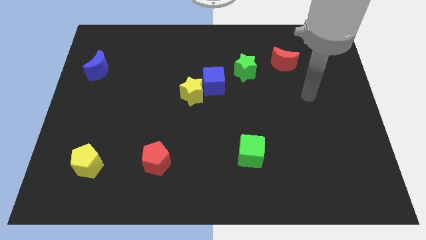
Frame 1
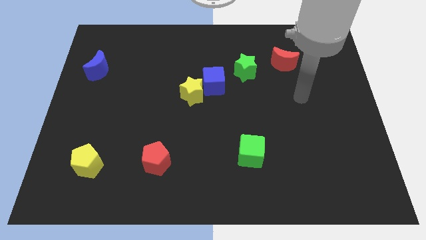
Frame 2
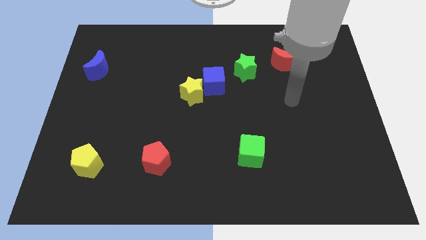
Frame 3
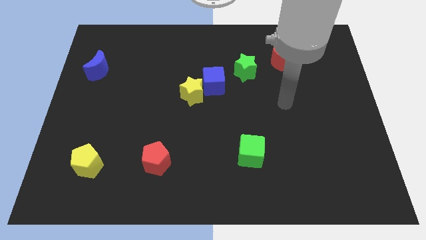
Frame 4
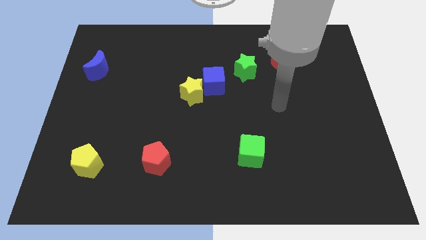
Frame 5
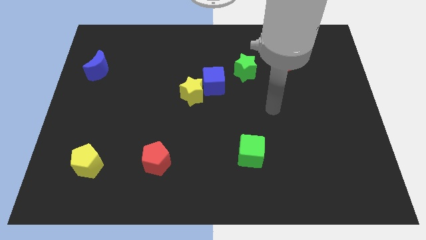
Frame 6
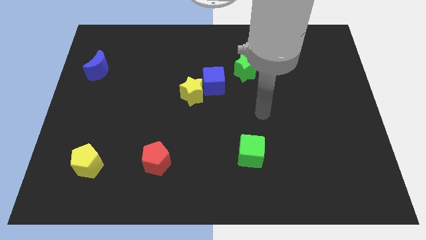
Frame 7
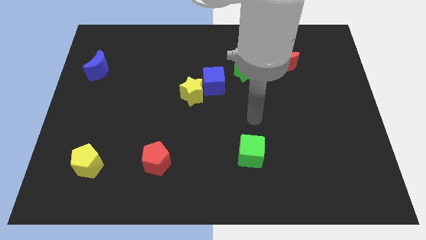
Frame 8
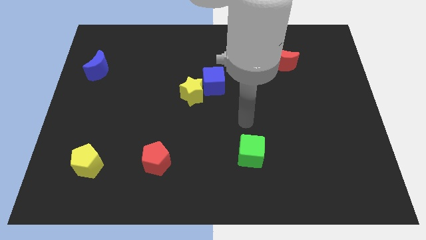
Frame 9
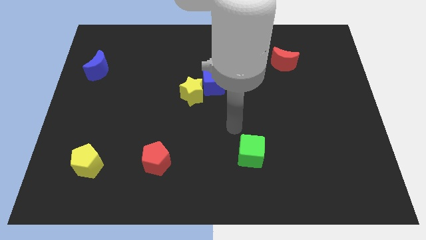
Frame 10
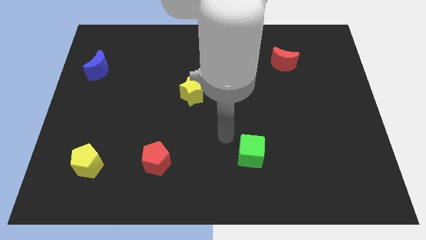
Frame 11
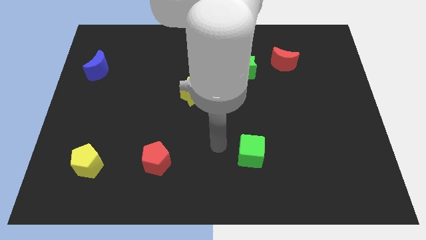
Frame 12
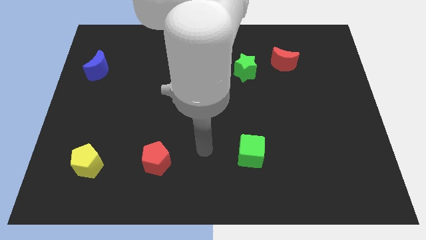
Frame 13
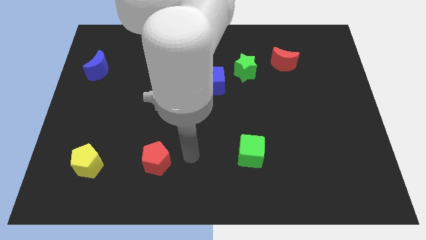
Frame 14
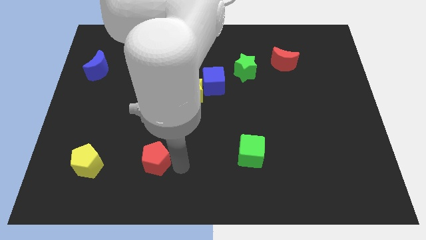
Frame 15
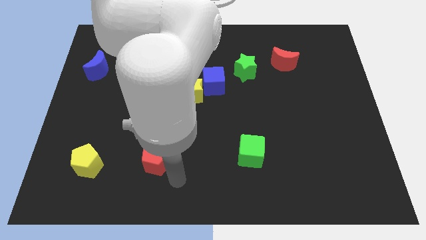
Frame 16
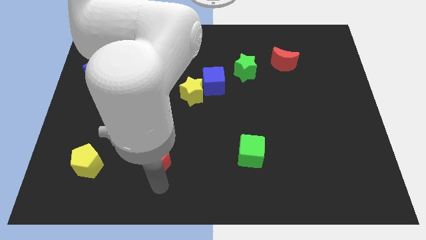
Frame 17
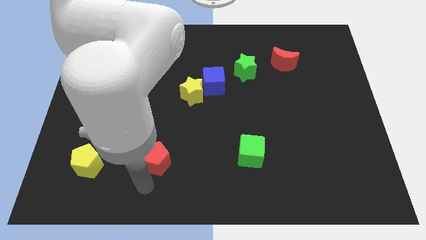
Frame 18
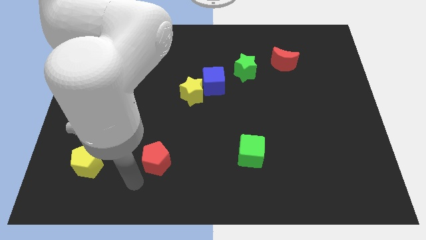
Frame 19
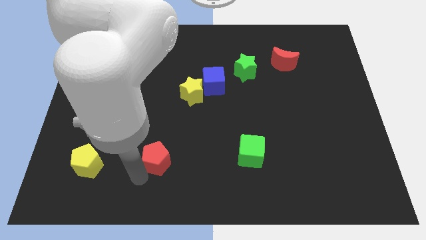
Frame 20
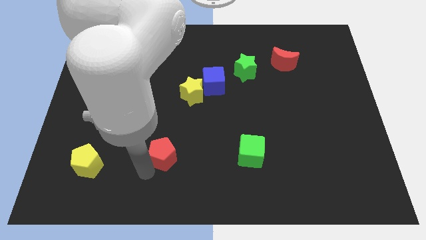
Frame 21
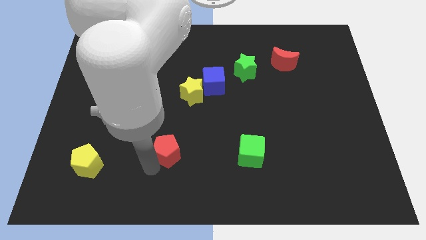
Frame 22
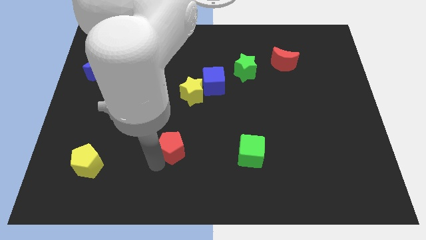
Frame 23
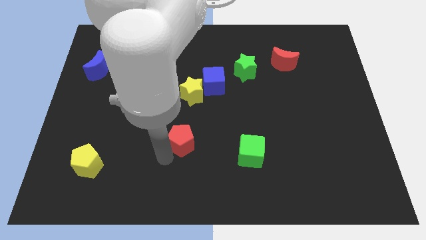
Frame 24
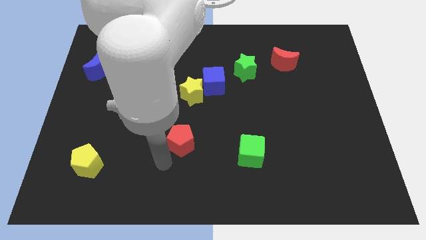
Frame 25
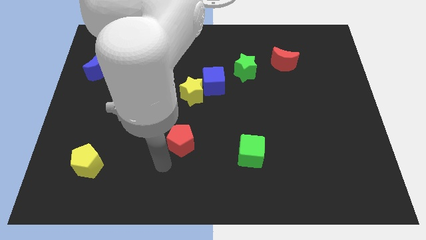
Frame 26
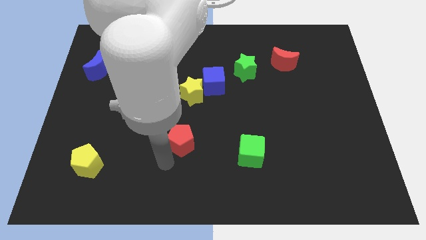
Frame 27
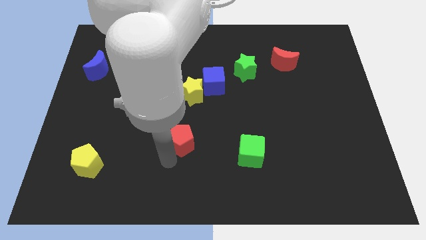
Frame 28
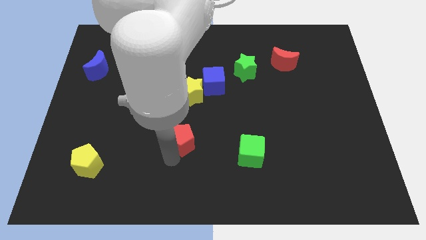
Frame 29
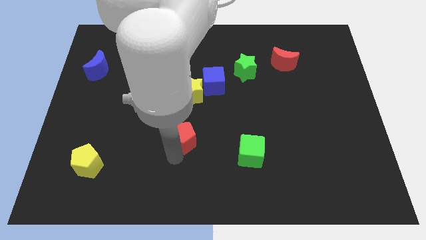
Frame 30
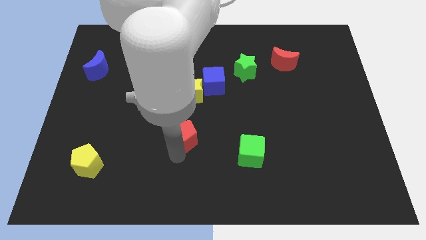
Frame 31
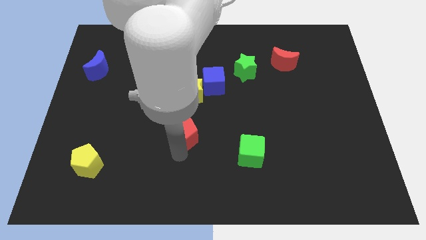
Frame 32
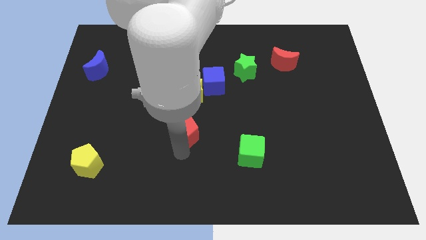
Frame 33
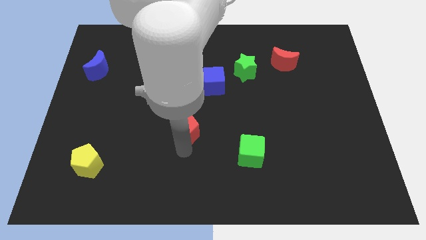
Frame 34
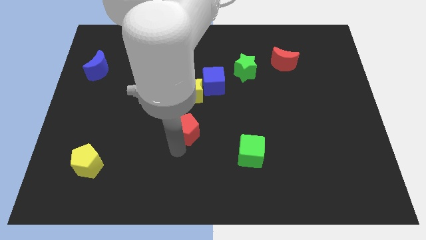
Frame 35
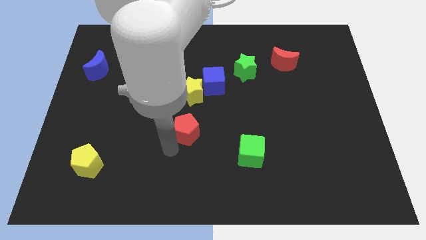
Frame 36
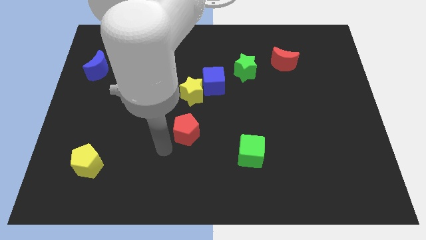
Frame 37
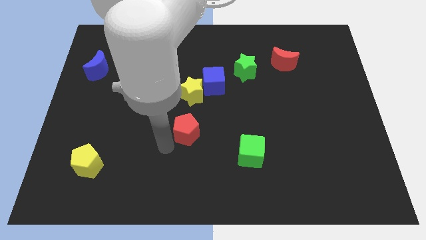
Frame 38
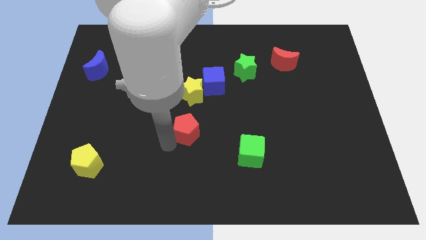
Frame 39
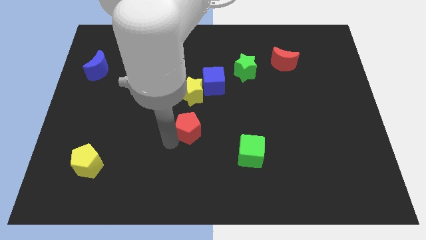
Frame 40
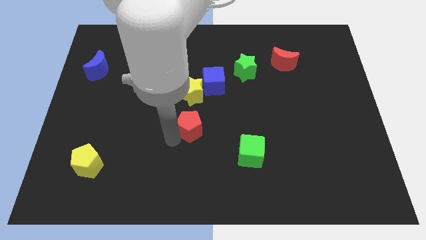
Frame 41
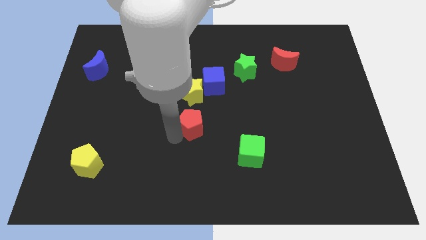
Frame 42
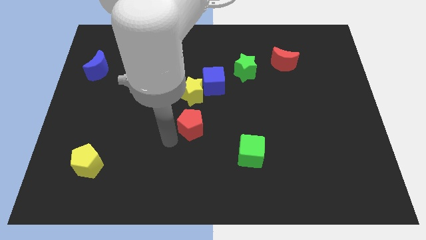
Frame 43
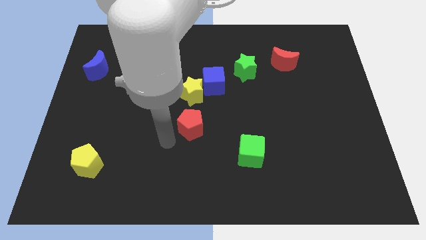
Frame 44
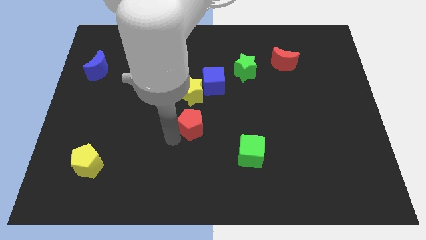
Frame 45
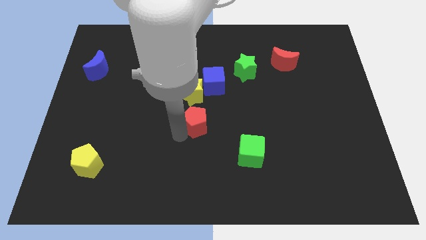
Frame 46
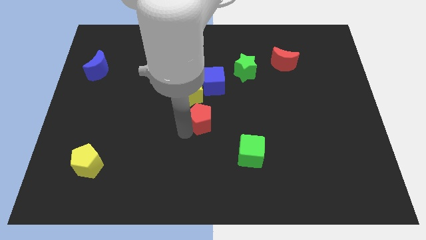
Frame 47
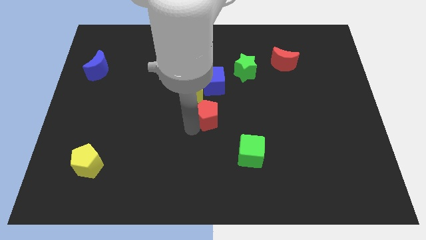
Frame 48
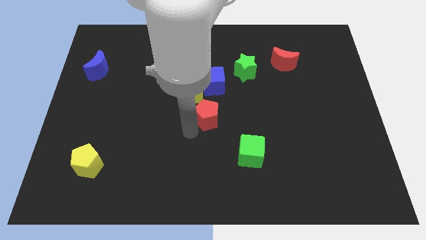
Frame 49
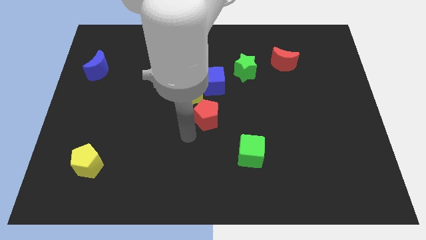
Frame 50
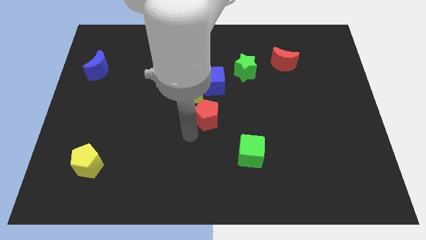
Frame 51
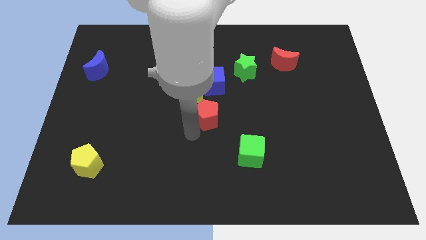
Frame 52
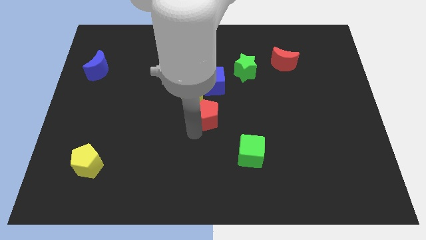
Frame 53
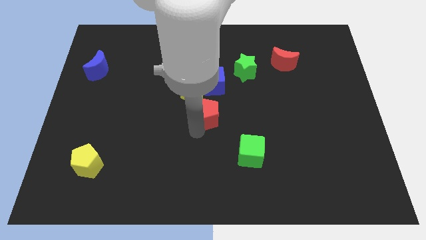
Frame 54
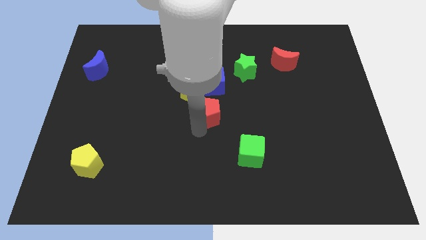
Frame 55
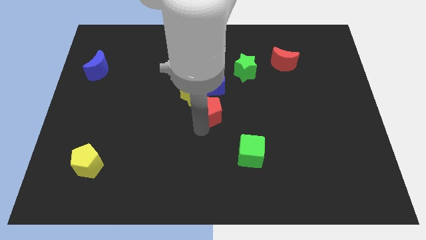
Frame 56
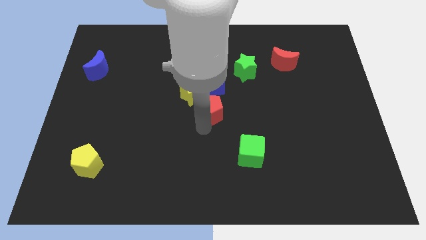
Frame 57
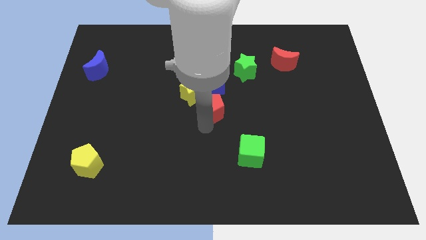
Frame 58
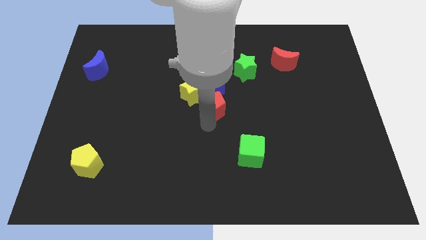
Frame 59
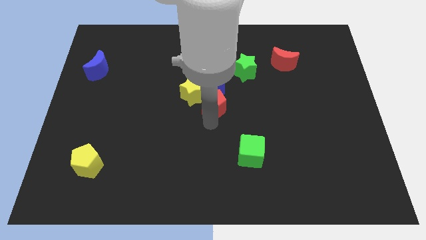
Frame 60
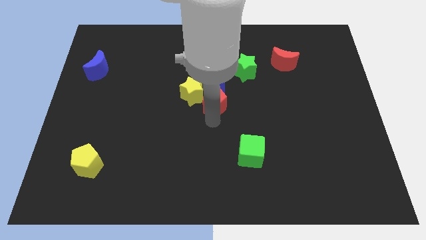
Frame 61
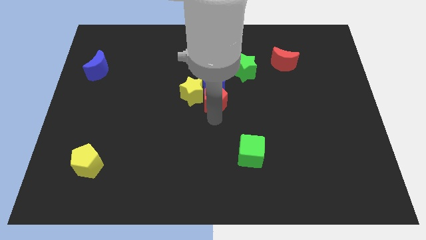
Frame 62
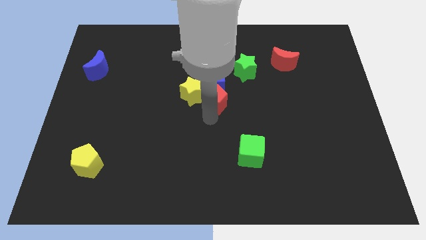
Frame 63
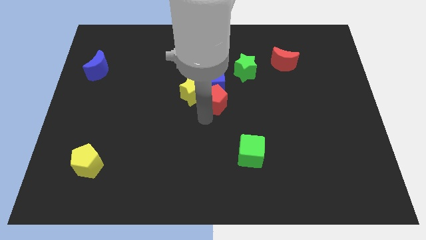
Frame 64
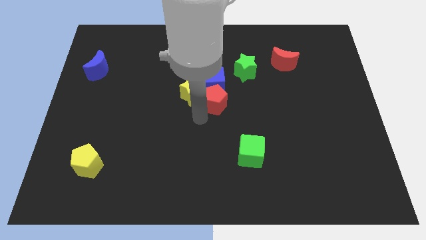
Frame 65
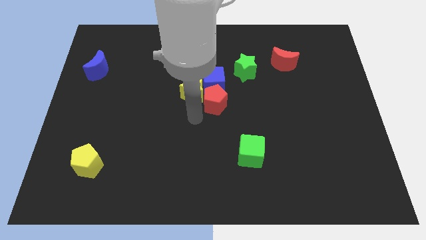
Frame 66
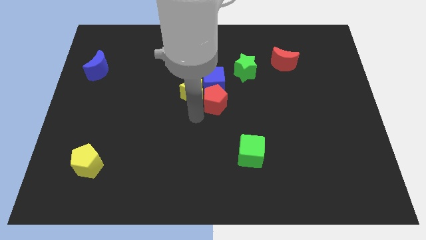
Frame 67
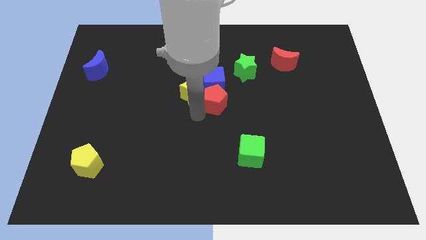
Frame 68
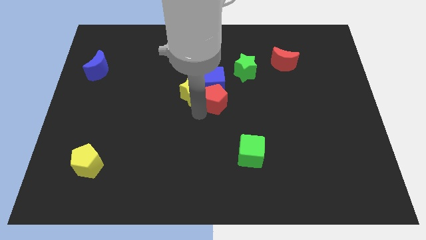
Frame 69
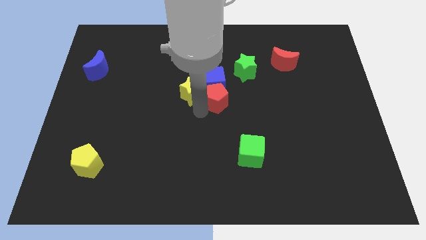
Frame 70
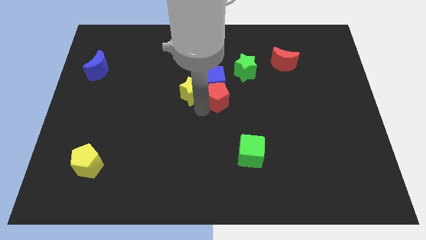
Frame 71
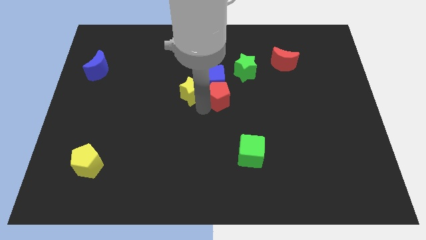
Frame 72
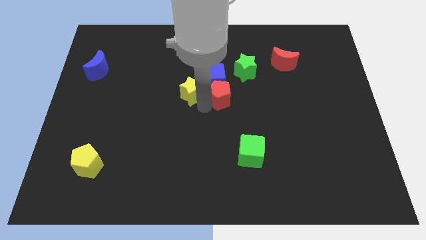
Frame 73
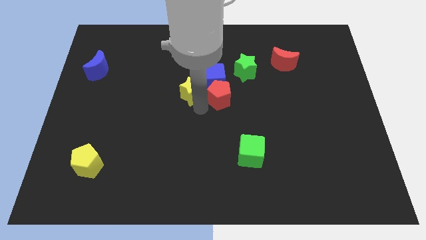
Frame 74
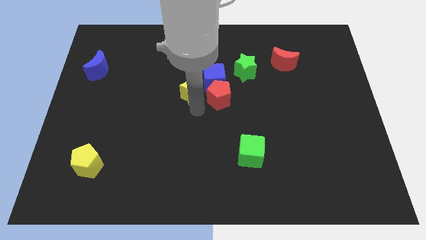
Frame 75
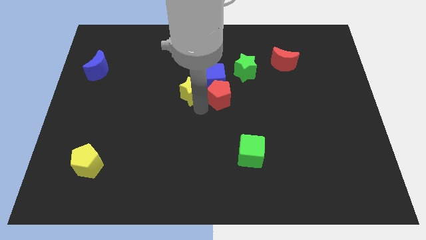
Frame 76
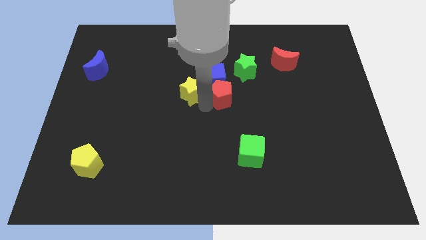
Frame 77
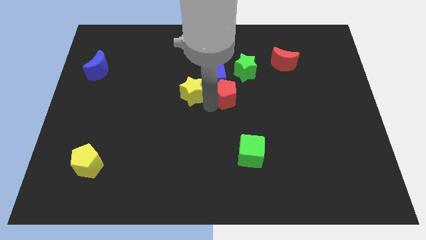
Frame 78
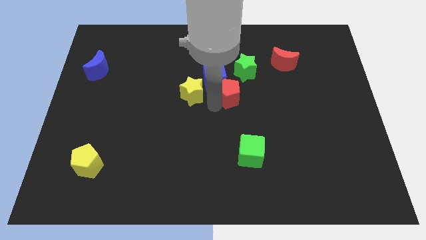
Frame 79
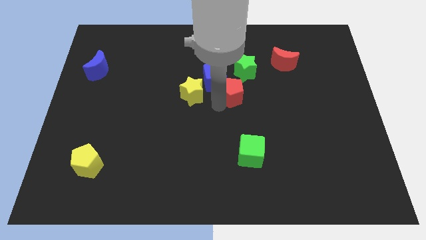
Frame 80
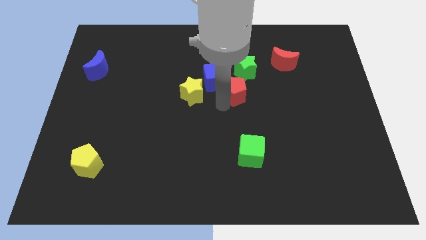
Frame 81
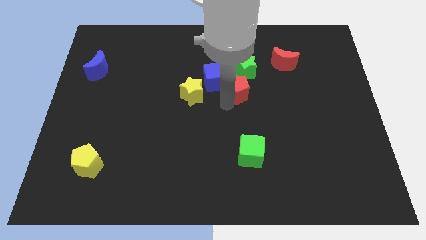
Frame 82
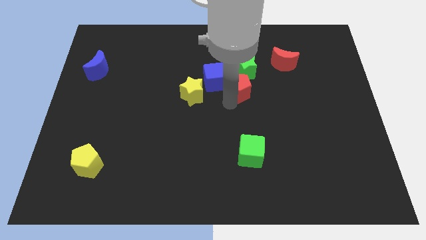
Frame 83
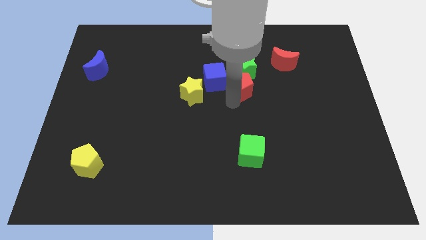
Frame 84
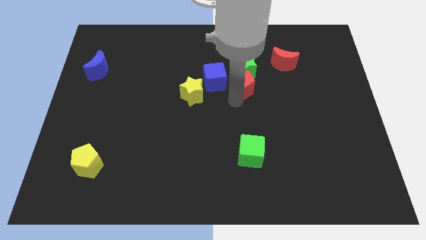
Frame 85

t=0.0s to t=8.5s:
push the red pentagon to the green star
